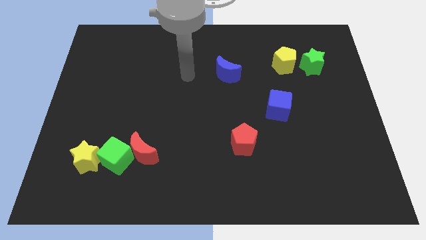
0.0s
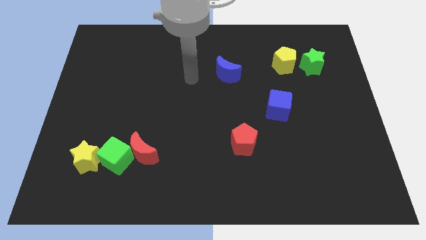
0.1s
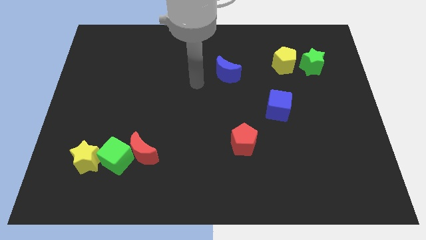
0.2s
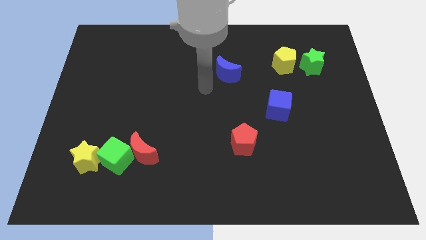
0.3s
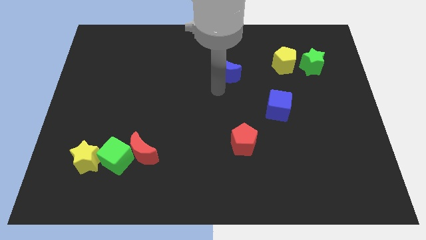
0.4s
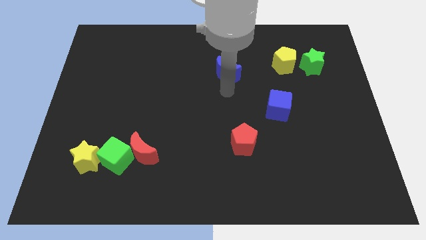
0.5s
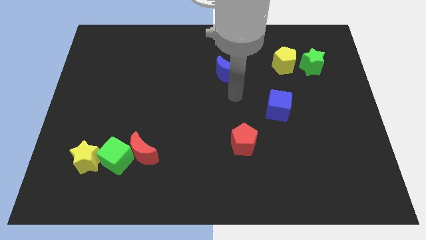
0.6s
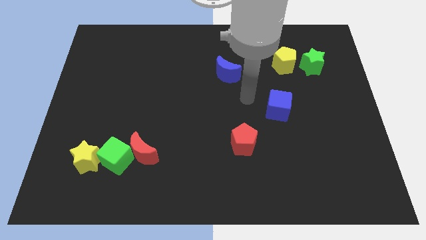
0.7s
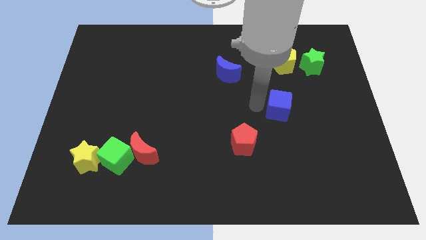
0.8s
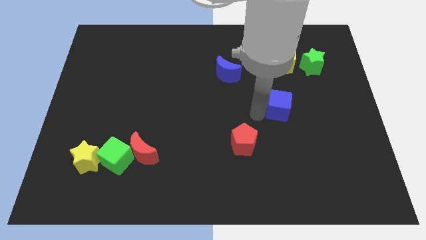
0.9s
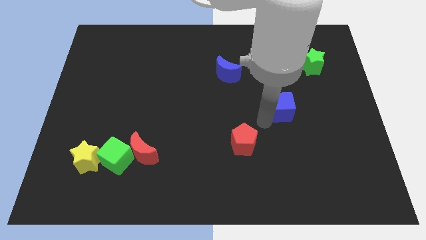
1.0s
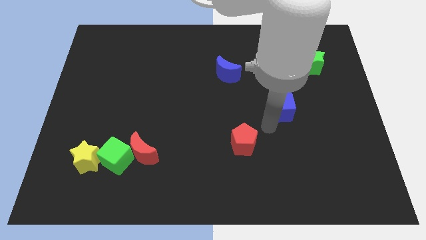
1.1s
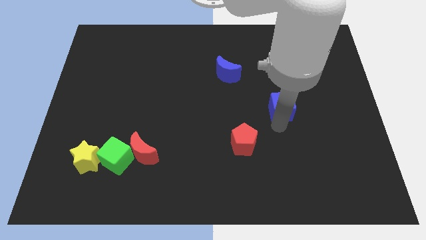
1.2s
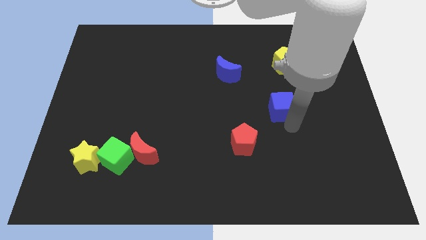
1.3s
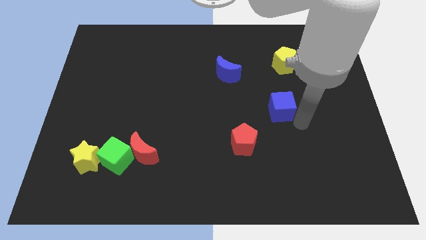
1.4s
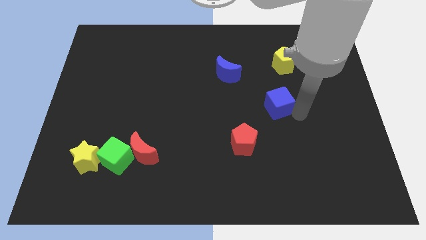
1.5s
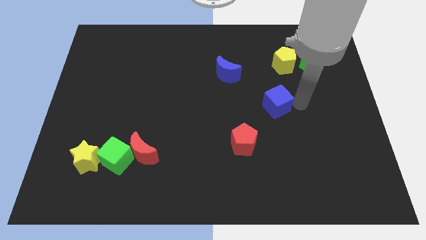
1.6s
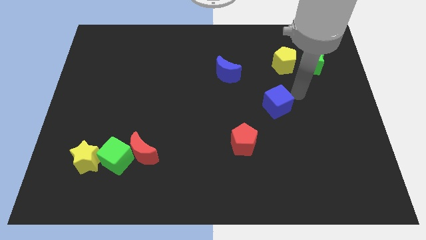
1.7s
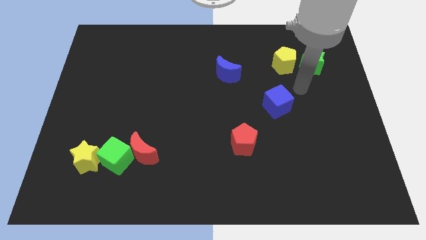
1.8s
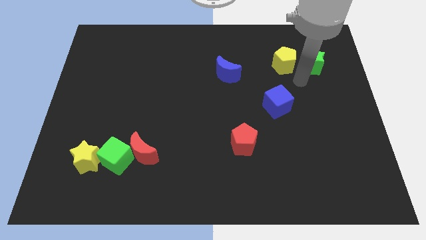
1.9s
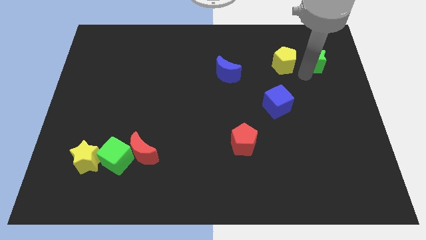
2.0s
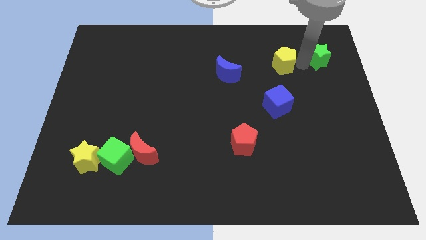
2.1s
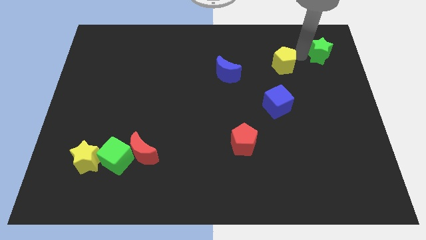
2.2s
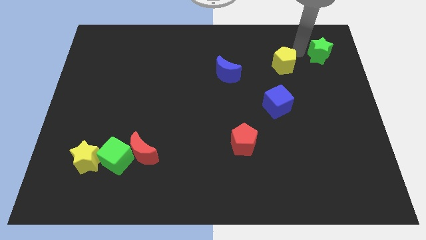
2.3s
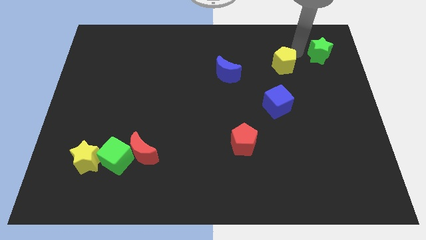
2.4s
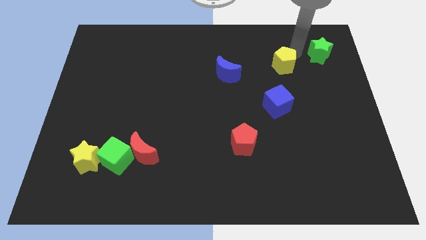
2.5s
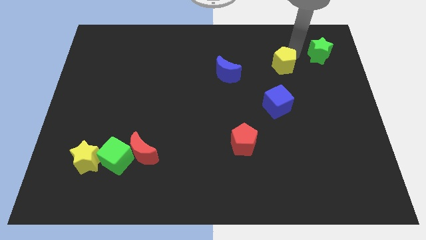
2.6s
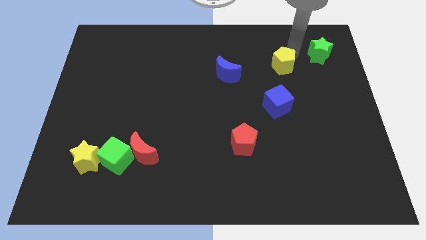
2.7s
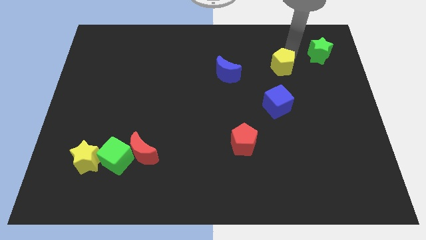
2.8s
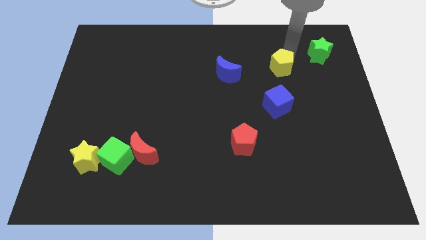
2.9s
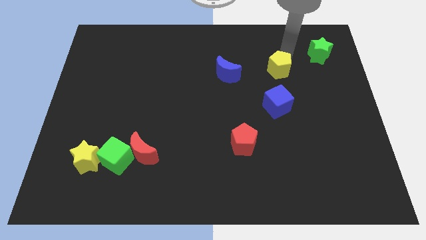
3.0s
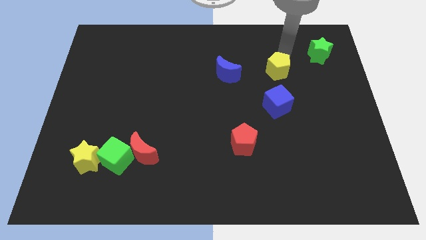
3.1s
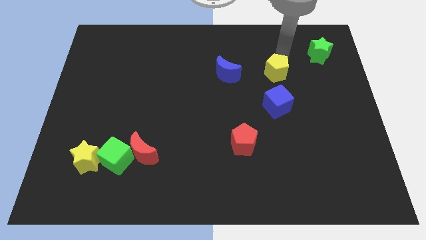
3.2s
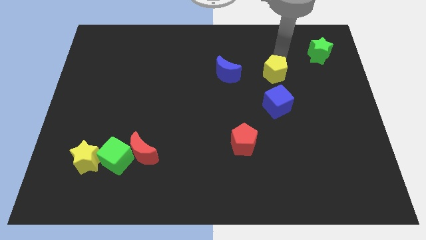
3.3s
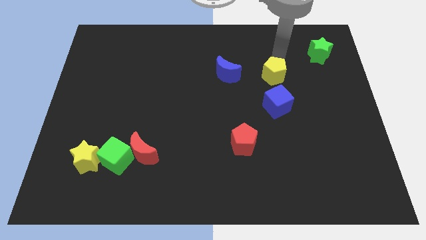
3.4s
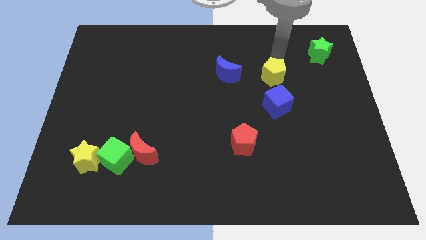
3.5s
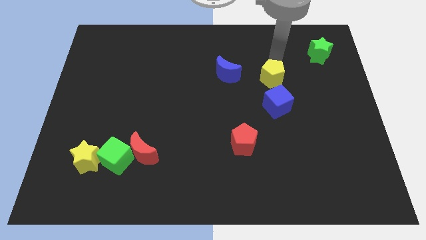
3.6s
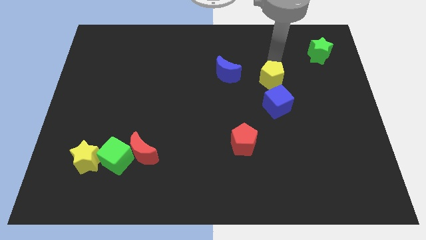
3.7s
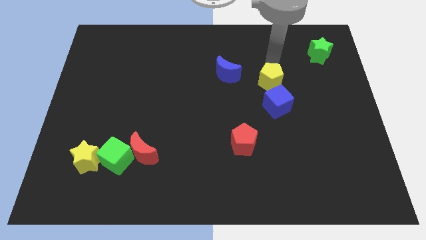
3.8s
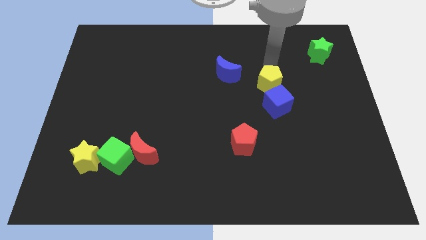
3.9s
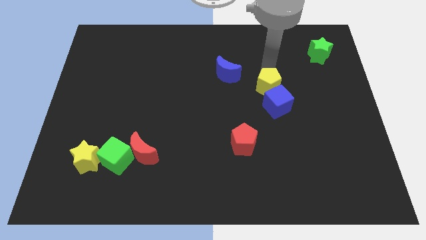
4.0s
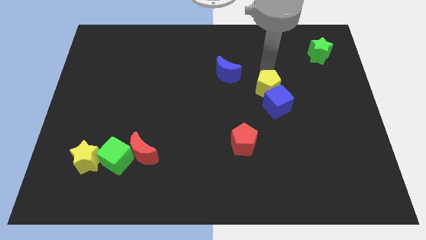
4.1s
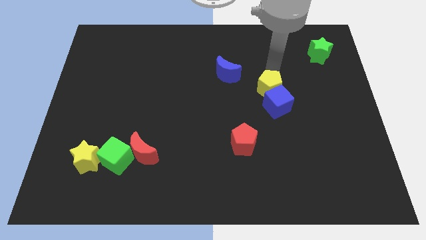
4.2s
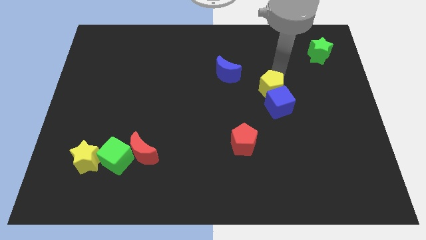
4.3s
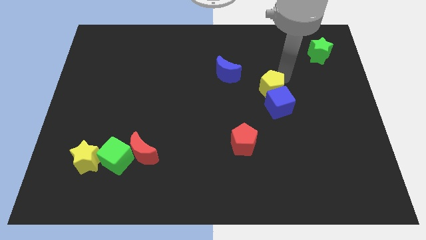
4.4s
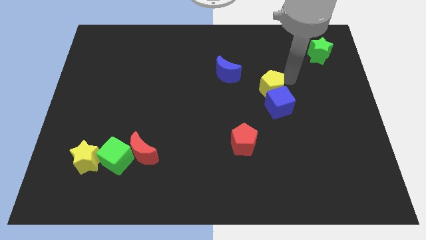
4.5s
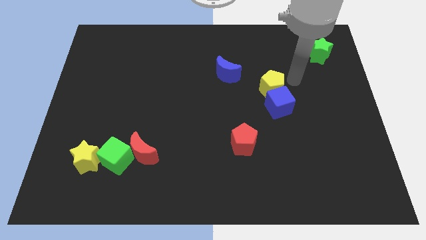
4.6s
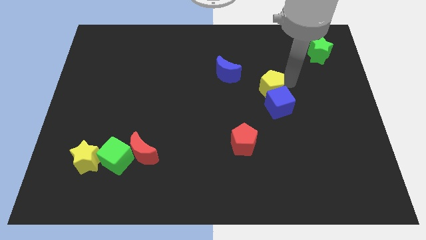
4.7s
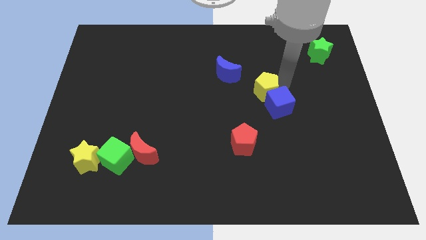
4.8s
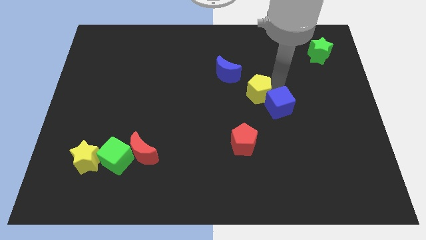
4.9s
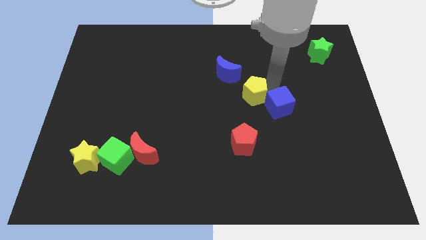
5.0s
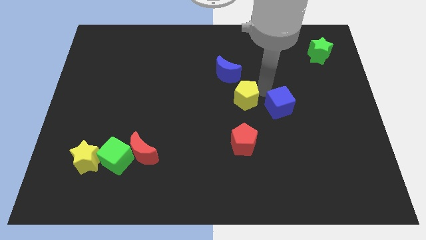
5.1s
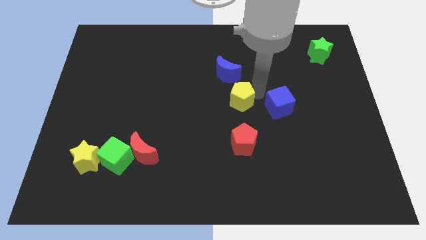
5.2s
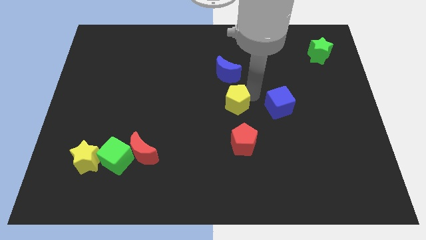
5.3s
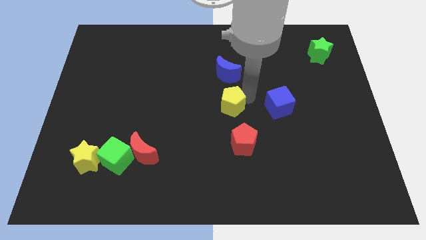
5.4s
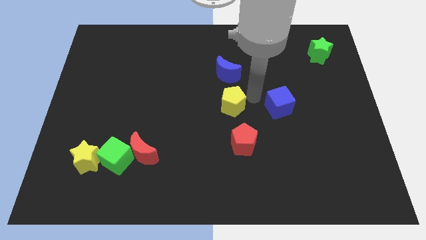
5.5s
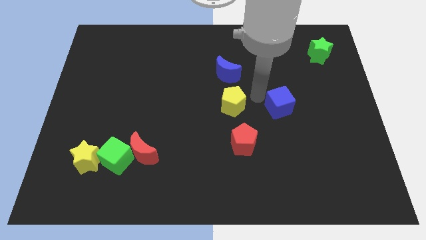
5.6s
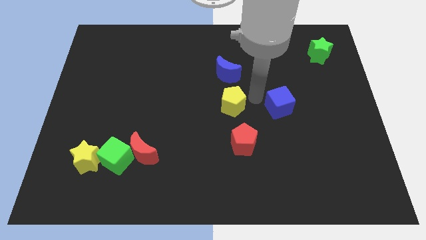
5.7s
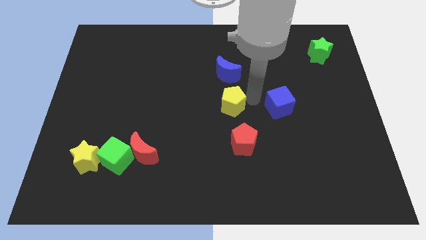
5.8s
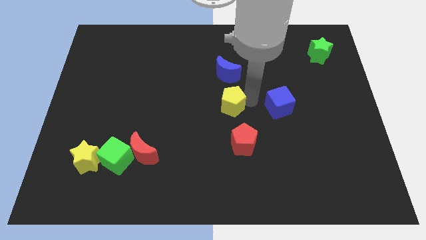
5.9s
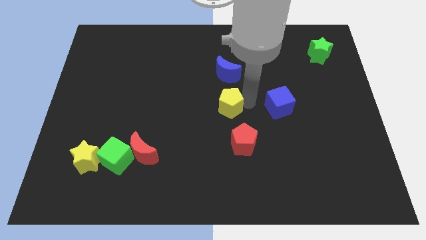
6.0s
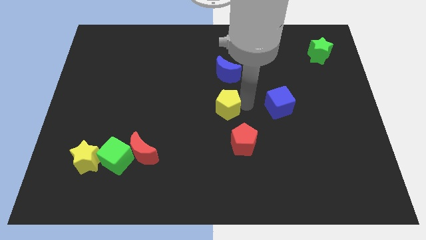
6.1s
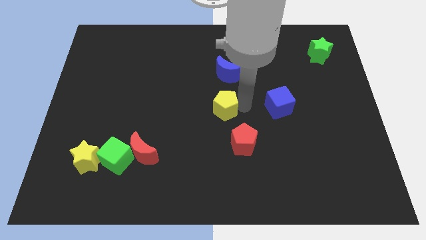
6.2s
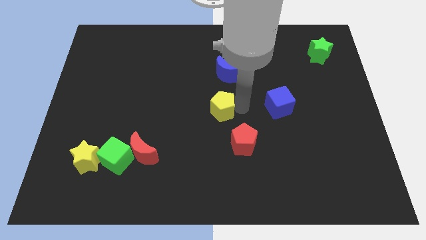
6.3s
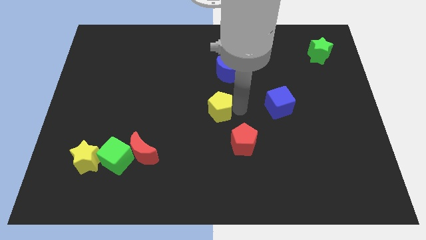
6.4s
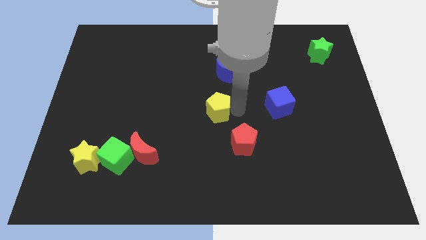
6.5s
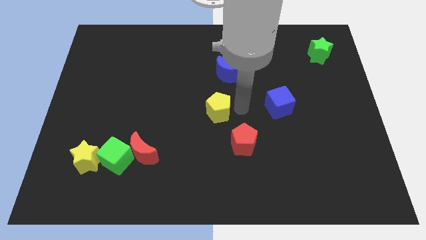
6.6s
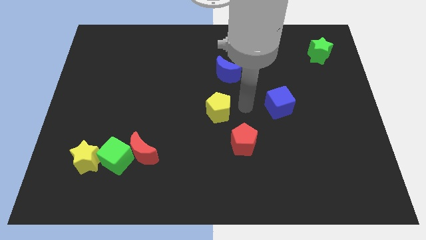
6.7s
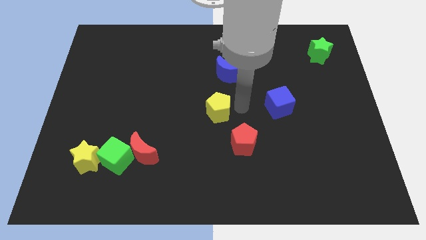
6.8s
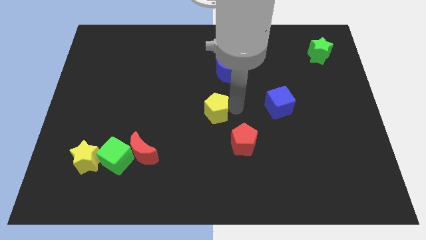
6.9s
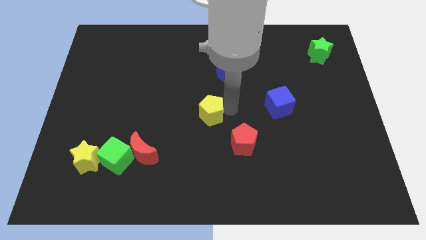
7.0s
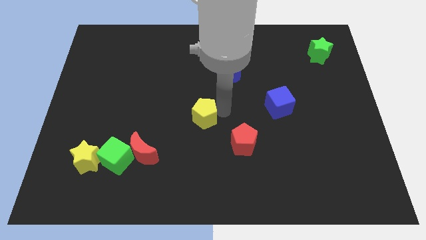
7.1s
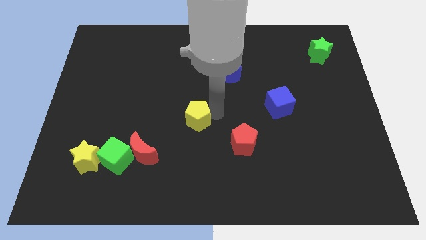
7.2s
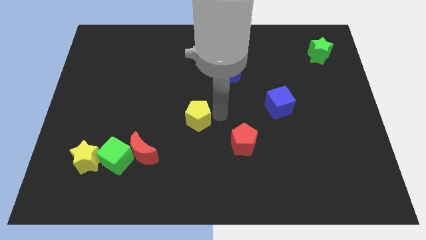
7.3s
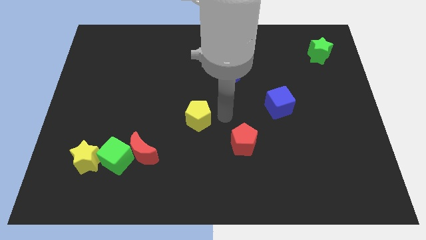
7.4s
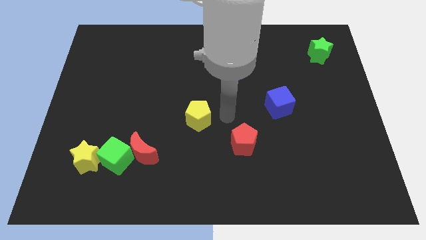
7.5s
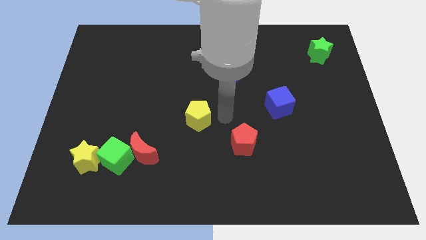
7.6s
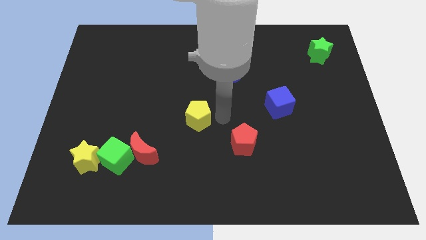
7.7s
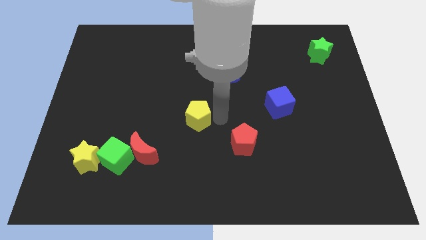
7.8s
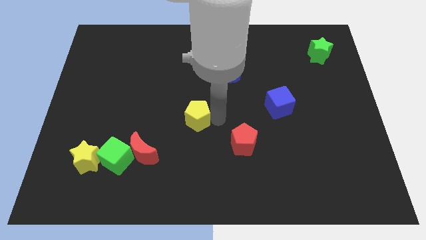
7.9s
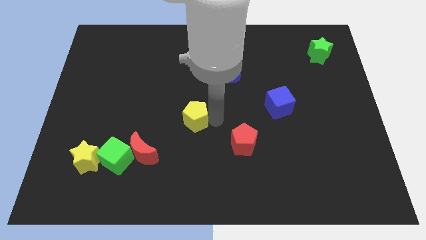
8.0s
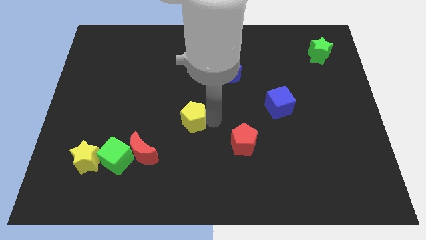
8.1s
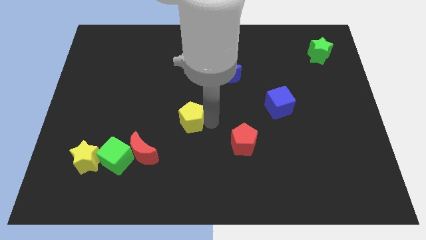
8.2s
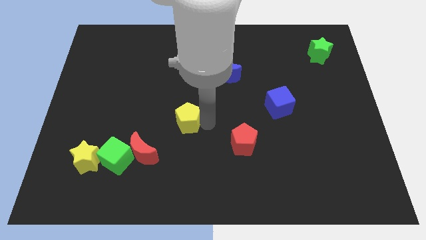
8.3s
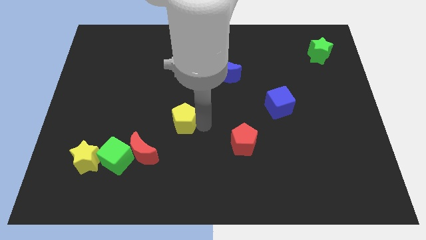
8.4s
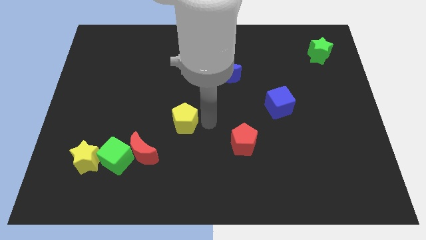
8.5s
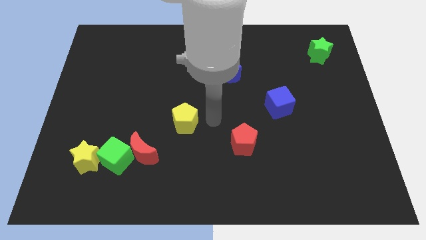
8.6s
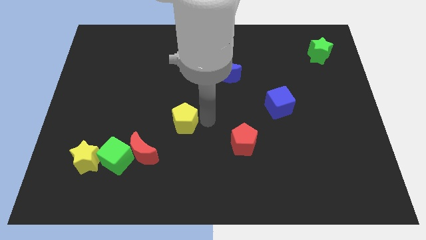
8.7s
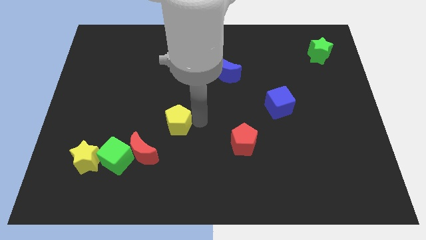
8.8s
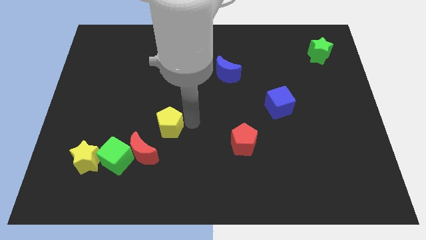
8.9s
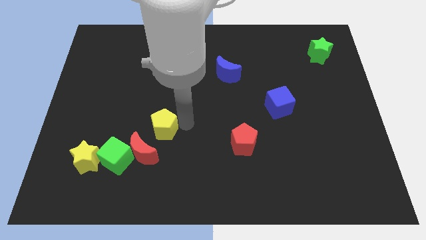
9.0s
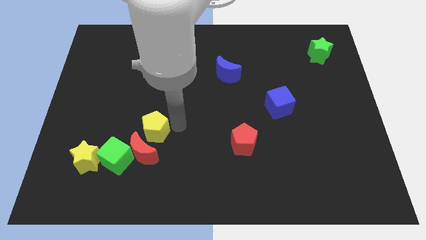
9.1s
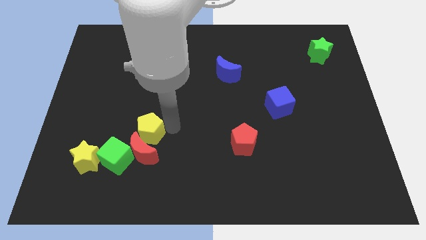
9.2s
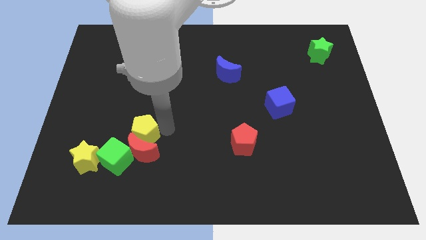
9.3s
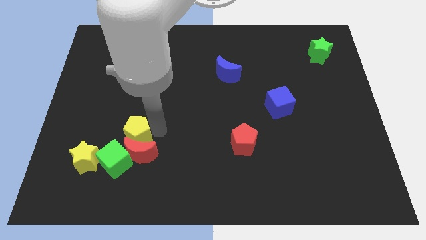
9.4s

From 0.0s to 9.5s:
move the yellow pentagon to the top right of the yellow star
